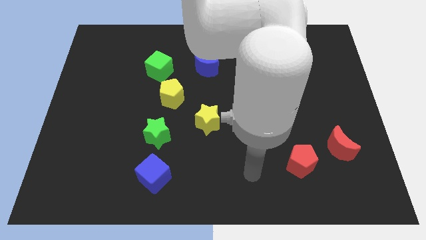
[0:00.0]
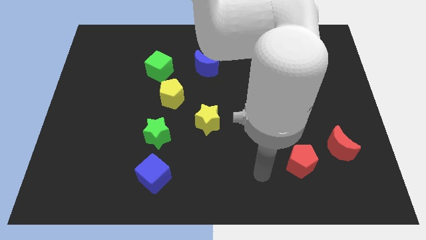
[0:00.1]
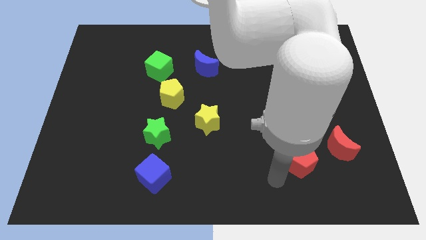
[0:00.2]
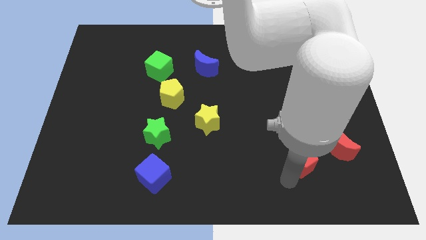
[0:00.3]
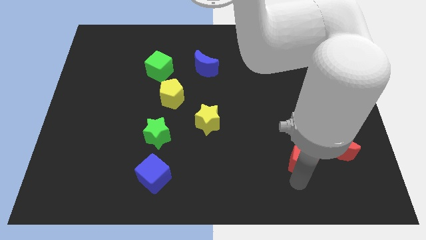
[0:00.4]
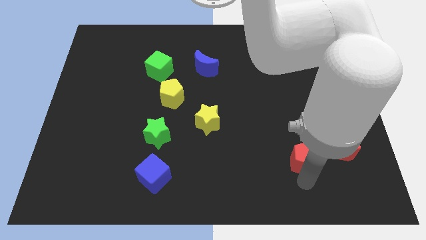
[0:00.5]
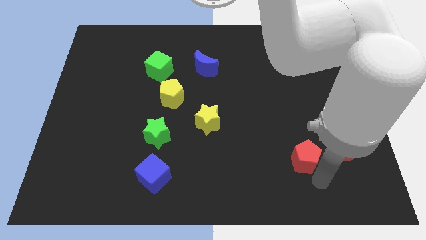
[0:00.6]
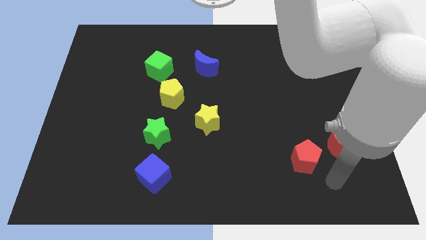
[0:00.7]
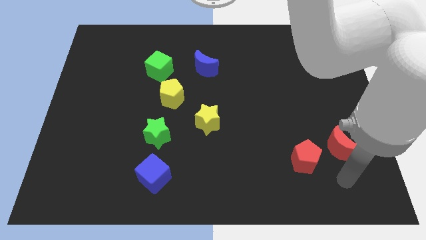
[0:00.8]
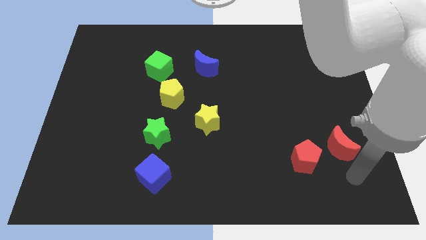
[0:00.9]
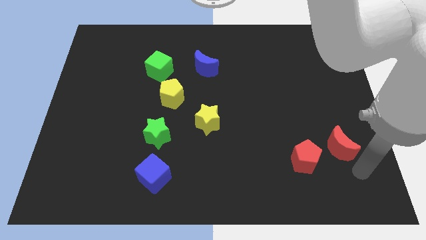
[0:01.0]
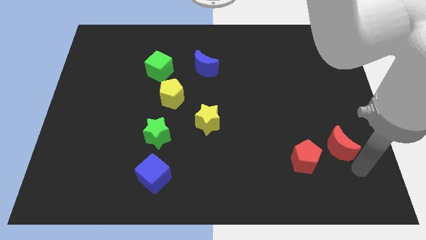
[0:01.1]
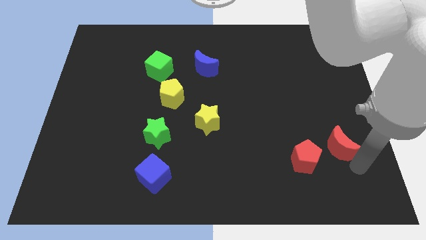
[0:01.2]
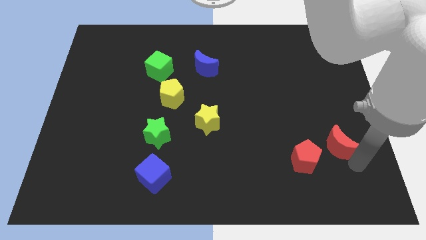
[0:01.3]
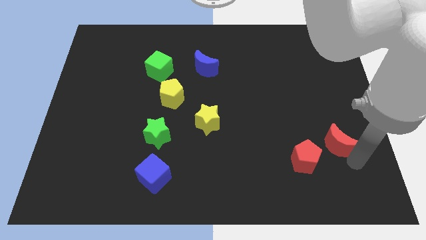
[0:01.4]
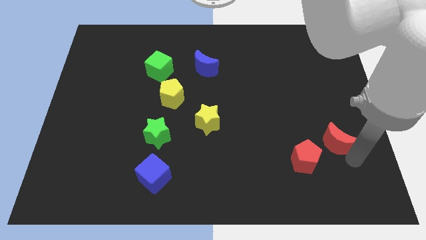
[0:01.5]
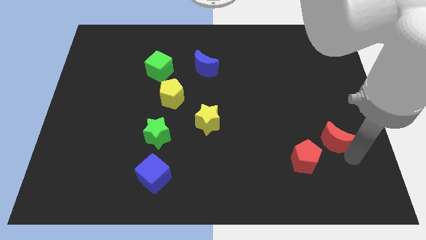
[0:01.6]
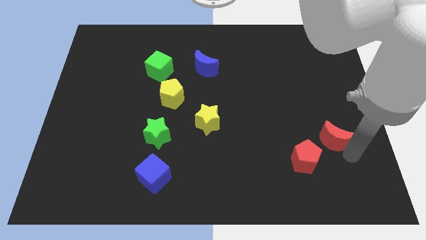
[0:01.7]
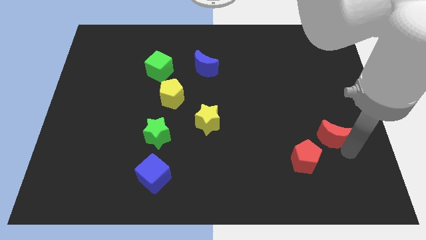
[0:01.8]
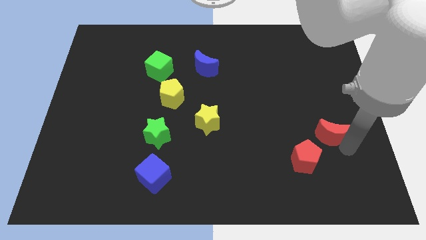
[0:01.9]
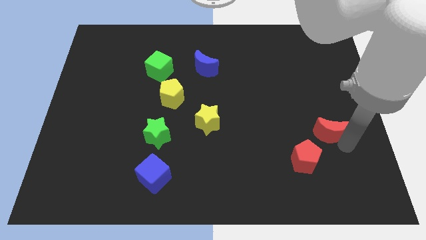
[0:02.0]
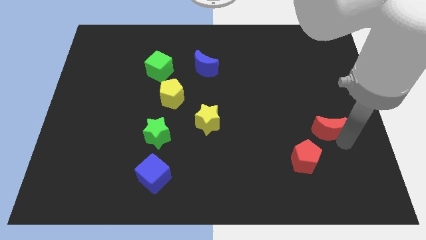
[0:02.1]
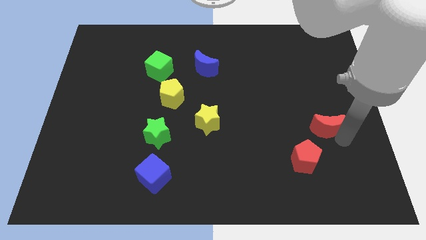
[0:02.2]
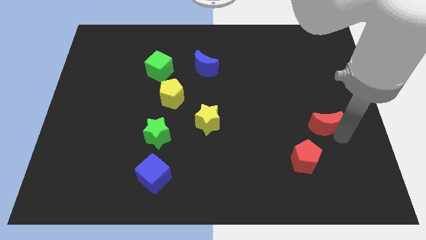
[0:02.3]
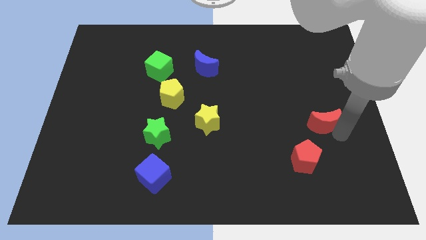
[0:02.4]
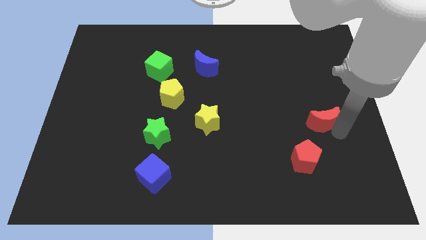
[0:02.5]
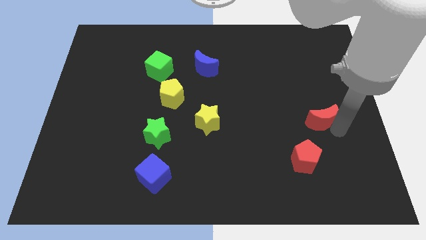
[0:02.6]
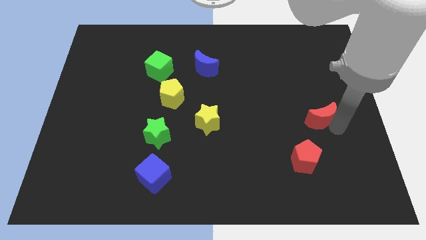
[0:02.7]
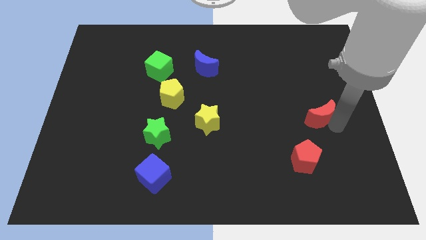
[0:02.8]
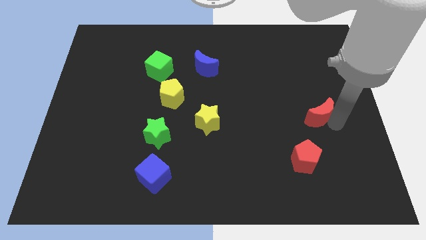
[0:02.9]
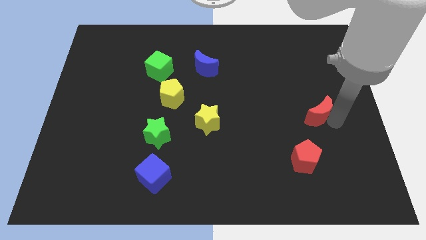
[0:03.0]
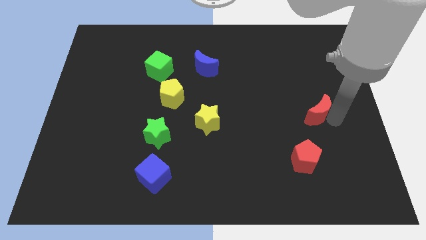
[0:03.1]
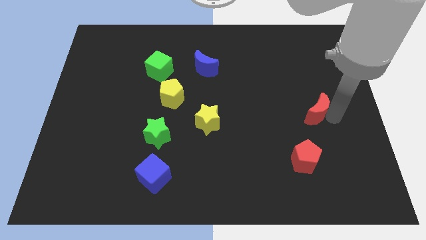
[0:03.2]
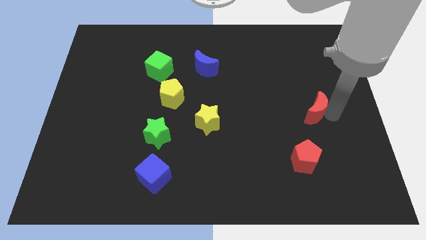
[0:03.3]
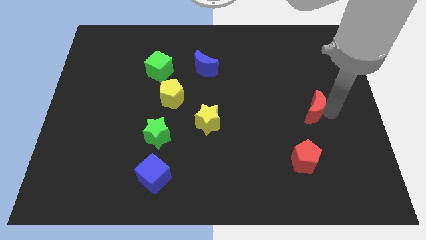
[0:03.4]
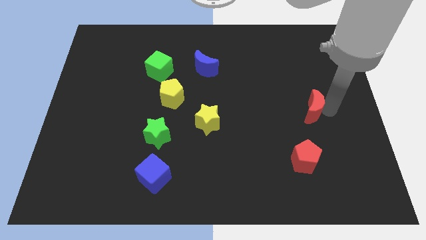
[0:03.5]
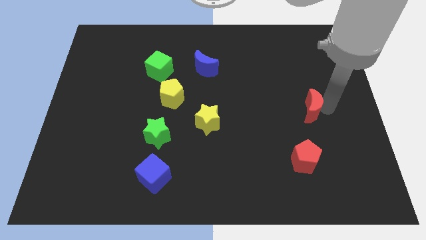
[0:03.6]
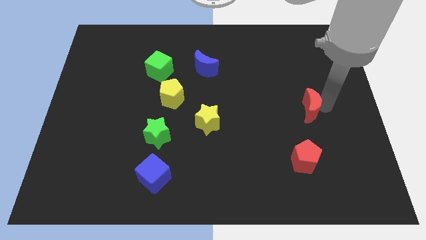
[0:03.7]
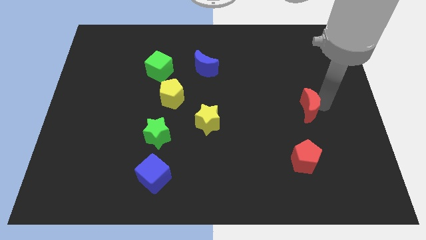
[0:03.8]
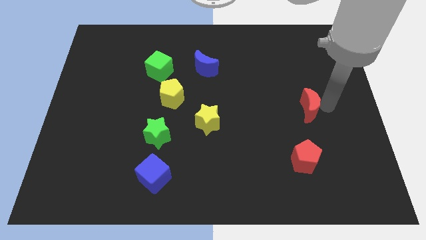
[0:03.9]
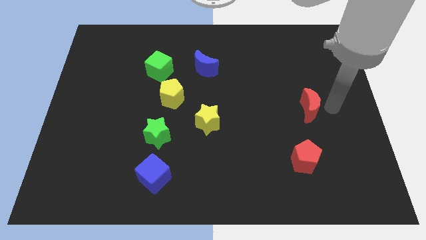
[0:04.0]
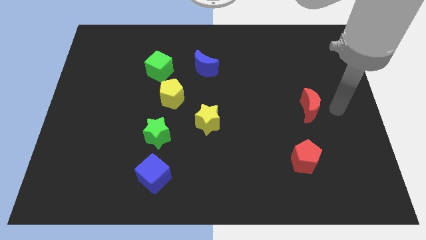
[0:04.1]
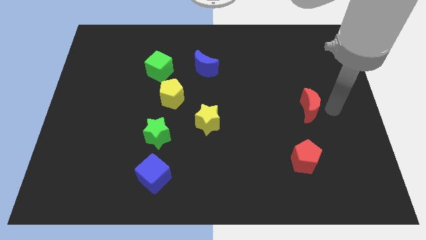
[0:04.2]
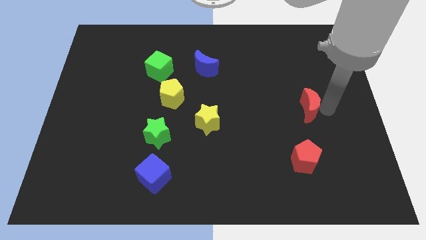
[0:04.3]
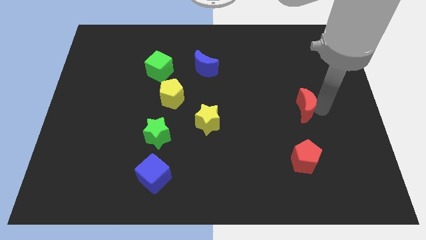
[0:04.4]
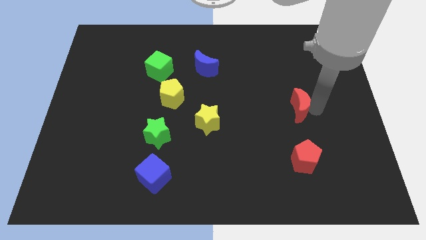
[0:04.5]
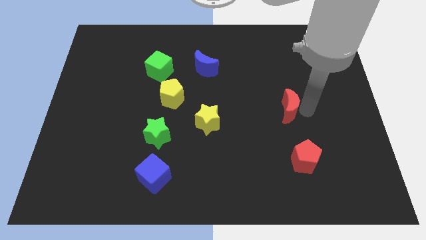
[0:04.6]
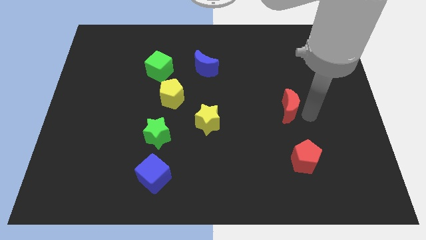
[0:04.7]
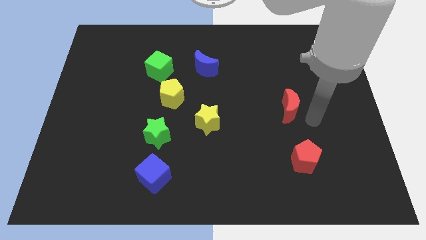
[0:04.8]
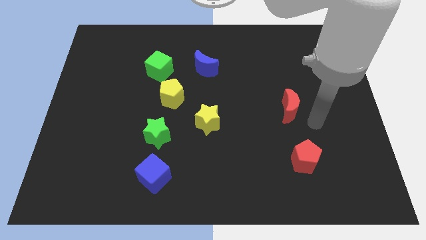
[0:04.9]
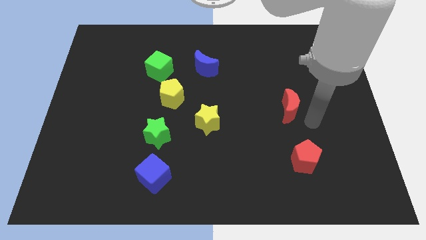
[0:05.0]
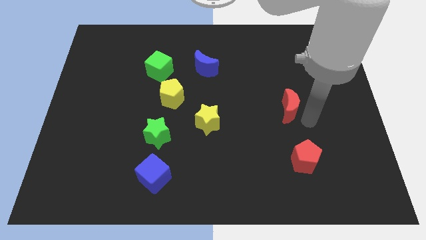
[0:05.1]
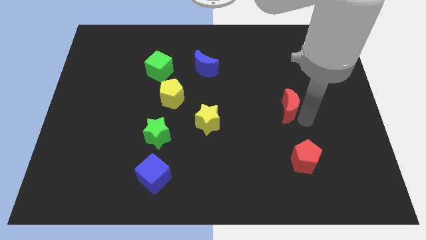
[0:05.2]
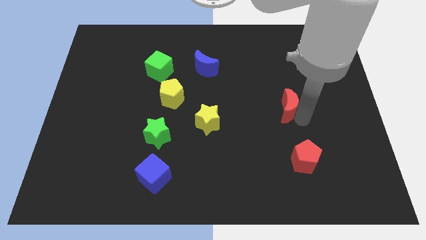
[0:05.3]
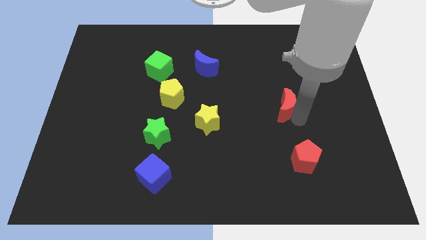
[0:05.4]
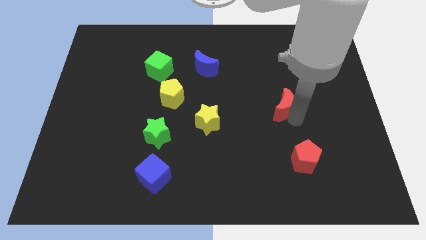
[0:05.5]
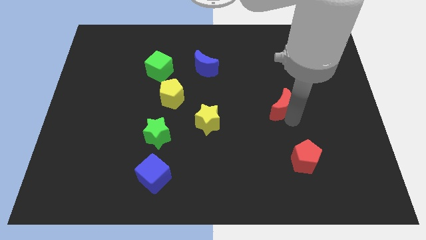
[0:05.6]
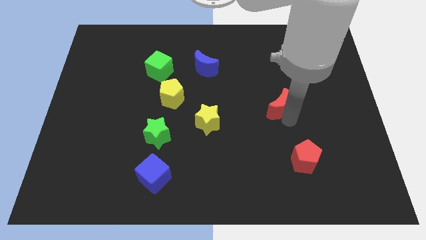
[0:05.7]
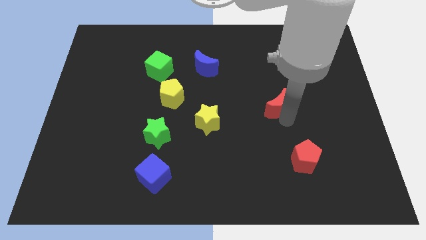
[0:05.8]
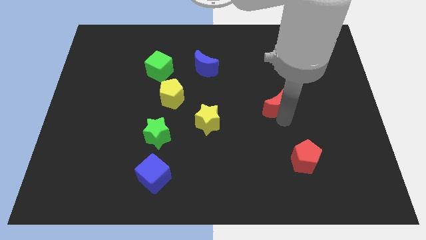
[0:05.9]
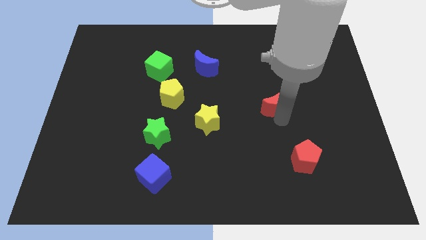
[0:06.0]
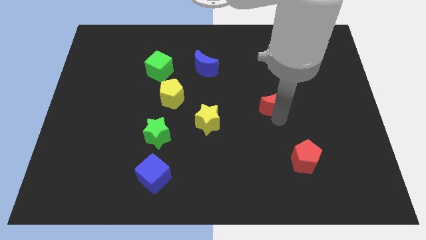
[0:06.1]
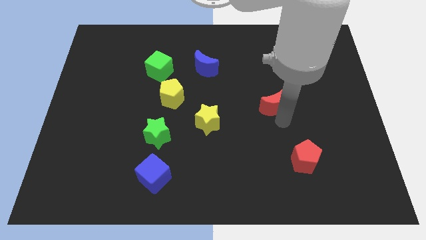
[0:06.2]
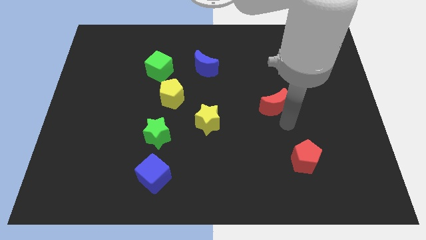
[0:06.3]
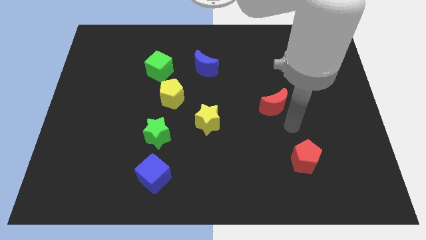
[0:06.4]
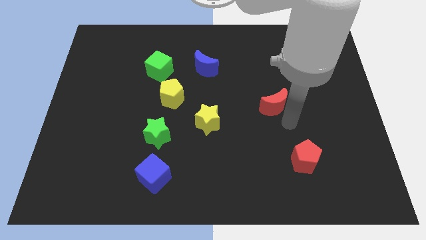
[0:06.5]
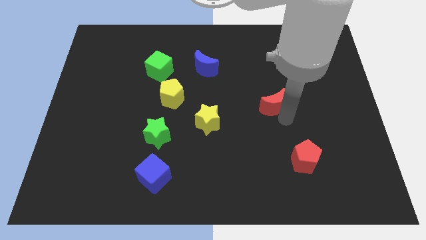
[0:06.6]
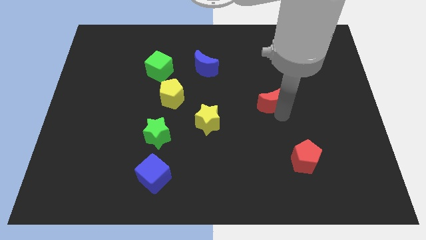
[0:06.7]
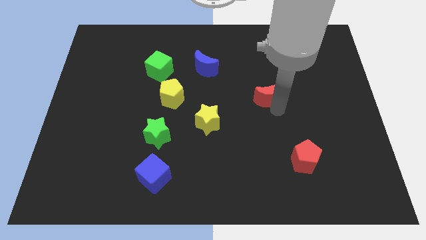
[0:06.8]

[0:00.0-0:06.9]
slide the red moon up and then left

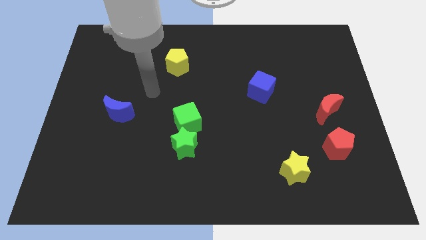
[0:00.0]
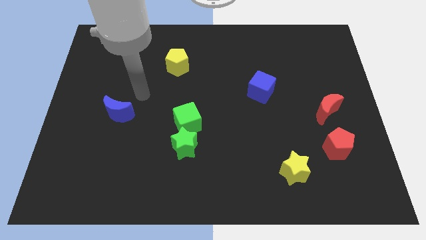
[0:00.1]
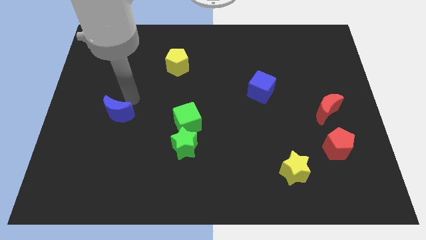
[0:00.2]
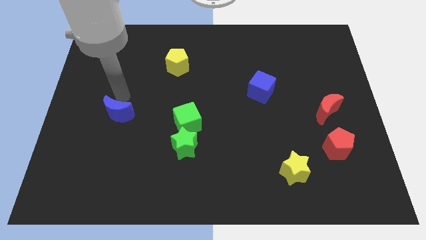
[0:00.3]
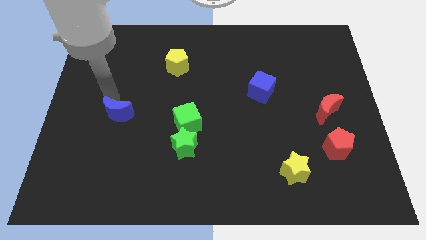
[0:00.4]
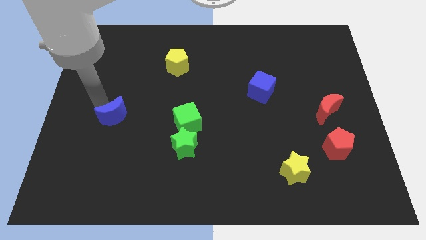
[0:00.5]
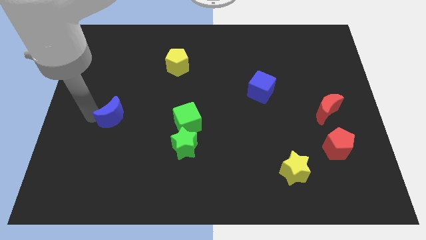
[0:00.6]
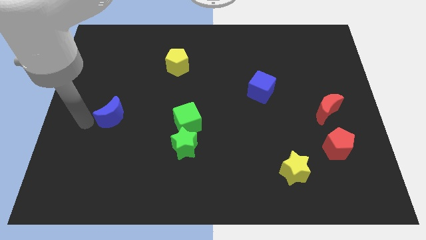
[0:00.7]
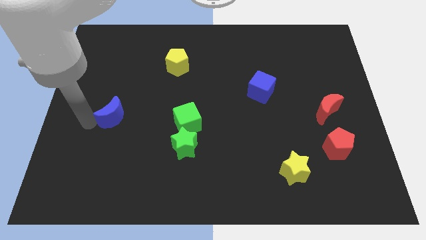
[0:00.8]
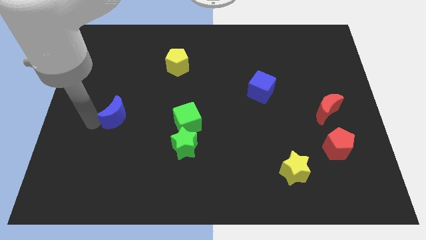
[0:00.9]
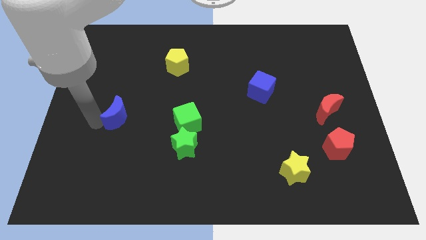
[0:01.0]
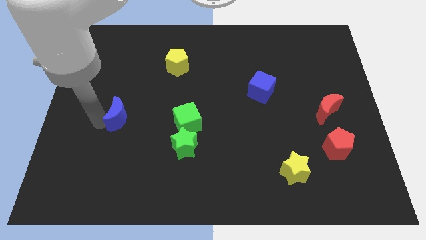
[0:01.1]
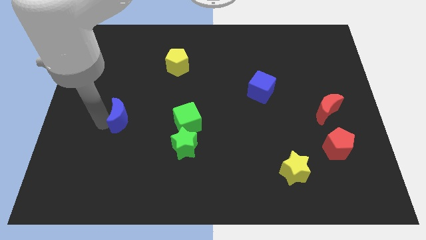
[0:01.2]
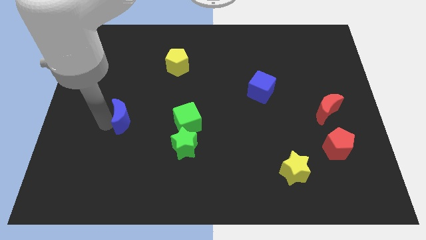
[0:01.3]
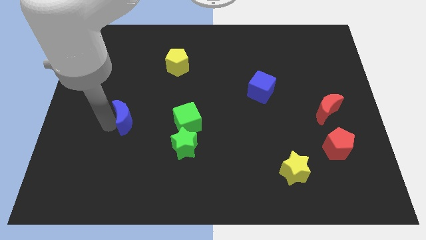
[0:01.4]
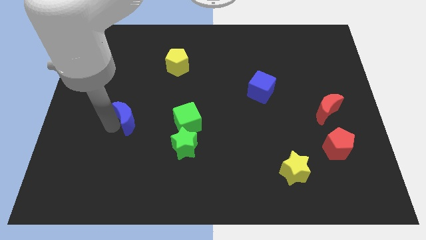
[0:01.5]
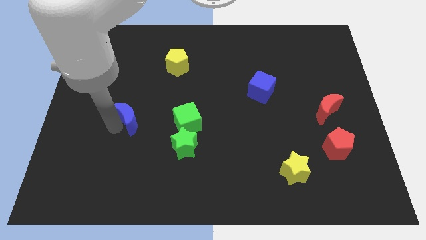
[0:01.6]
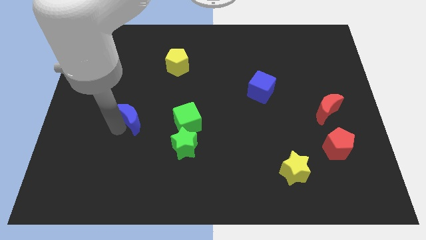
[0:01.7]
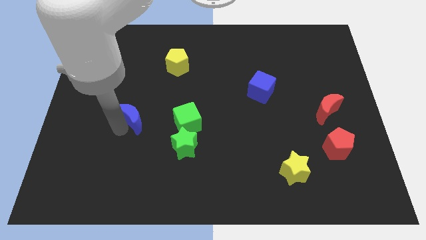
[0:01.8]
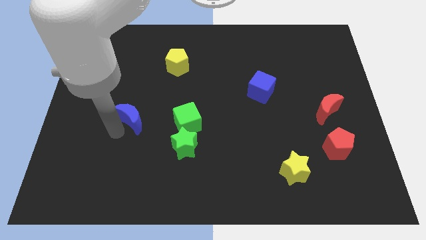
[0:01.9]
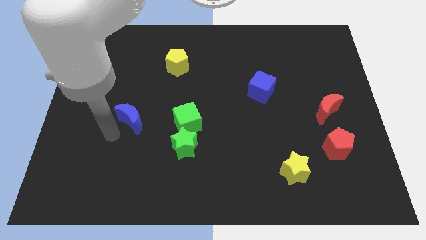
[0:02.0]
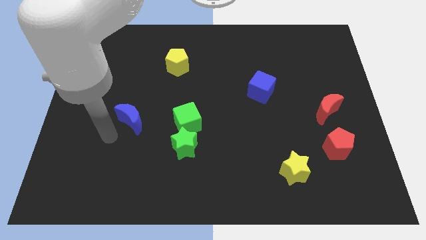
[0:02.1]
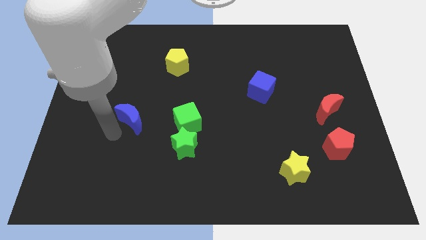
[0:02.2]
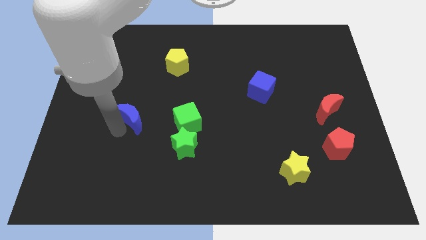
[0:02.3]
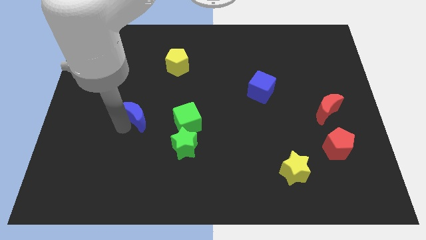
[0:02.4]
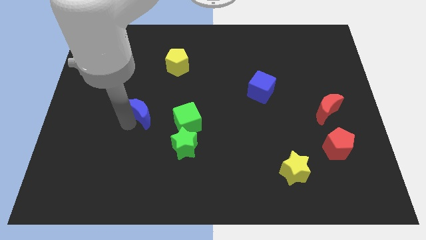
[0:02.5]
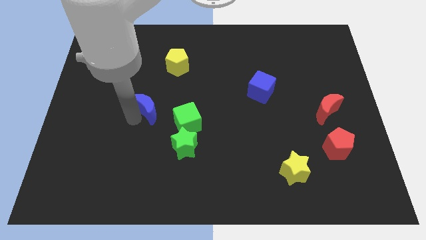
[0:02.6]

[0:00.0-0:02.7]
push the blue moon a little bit to the right
